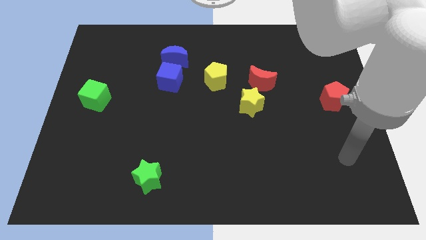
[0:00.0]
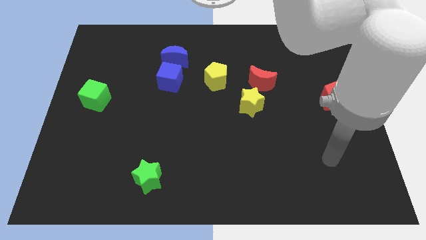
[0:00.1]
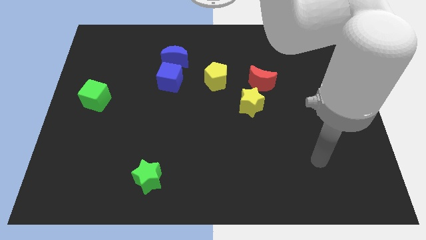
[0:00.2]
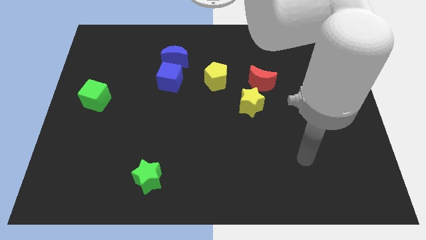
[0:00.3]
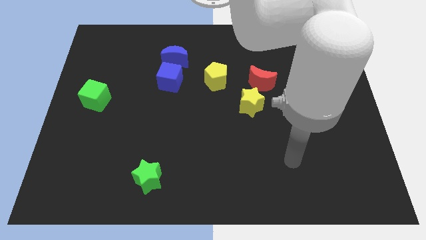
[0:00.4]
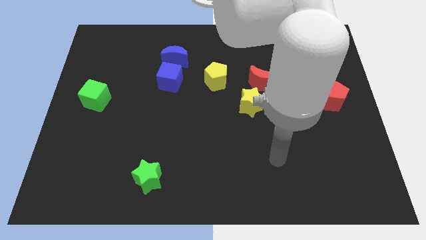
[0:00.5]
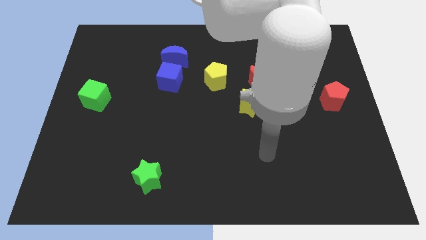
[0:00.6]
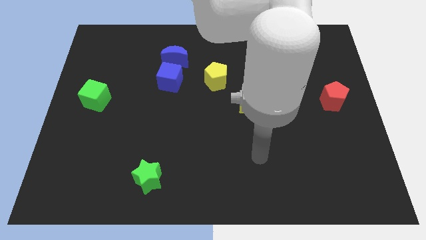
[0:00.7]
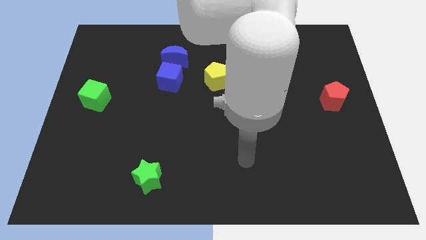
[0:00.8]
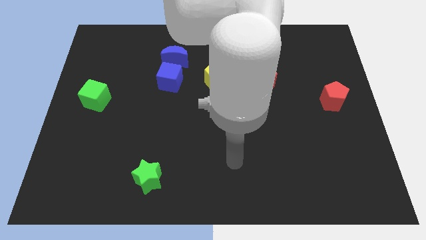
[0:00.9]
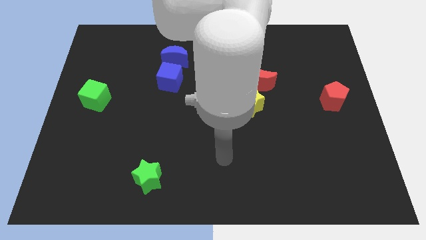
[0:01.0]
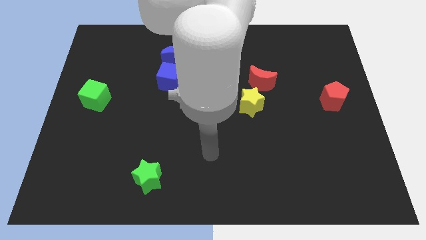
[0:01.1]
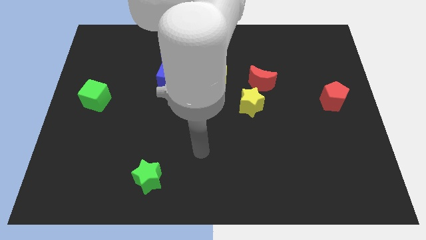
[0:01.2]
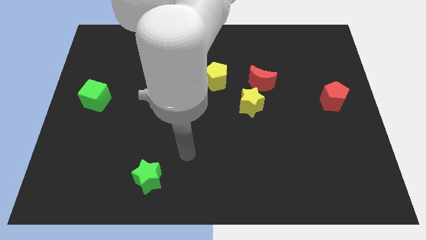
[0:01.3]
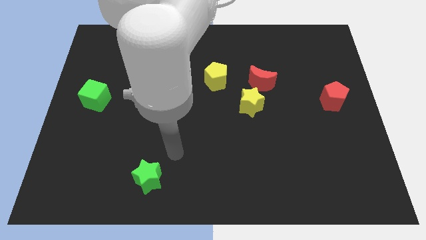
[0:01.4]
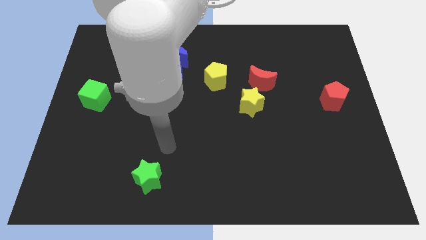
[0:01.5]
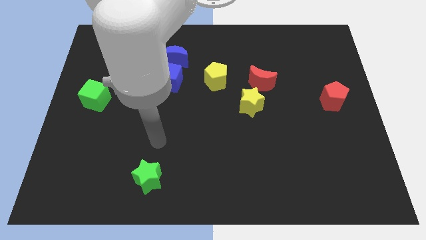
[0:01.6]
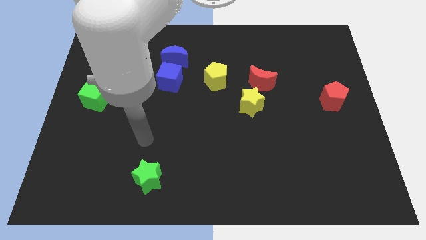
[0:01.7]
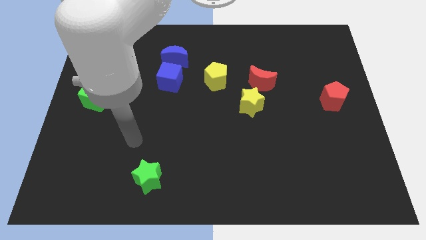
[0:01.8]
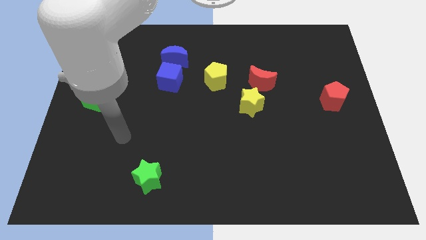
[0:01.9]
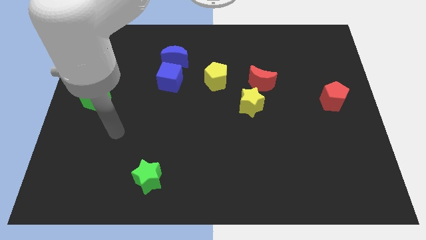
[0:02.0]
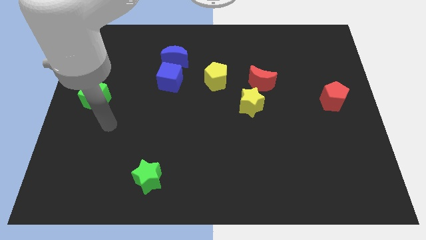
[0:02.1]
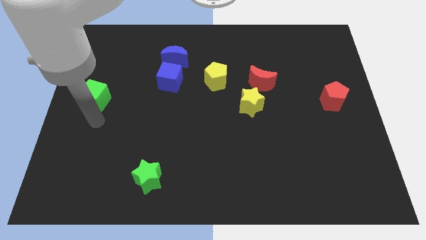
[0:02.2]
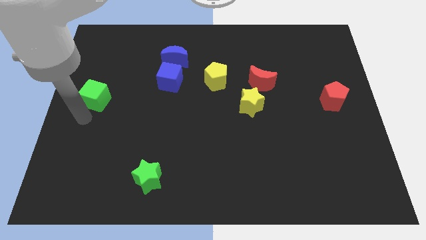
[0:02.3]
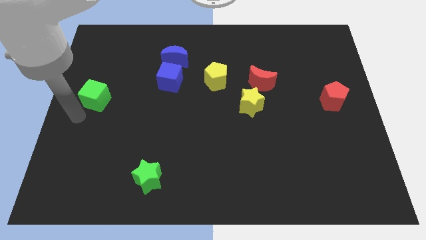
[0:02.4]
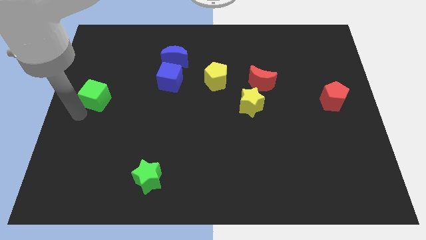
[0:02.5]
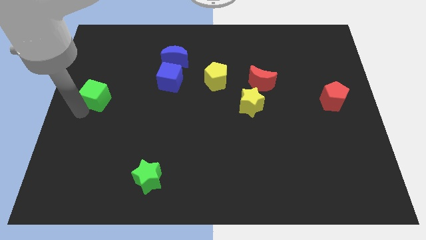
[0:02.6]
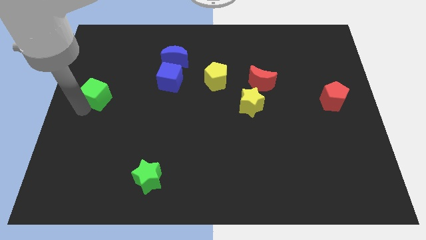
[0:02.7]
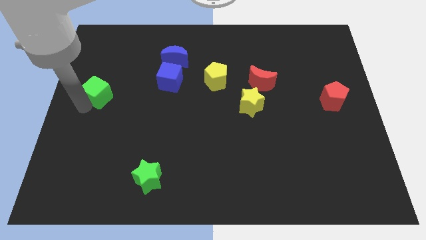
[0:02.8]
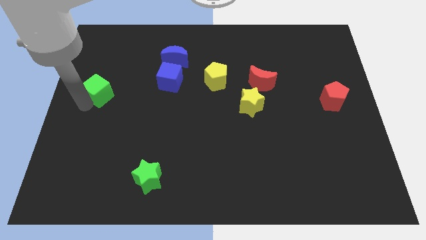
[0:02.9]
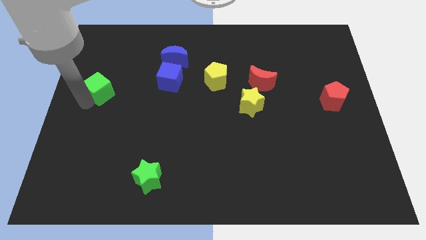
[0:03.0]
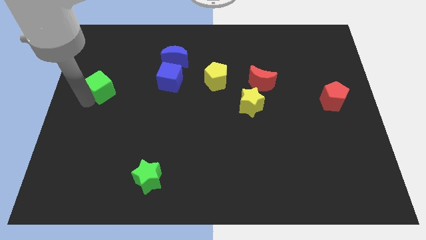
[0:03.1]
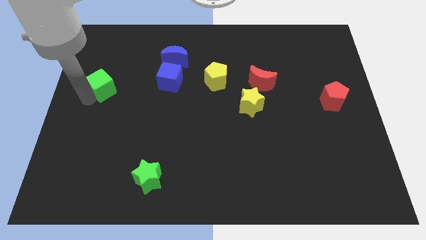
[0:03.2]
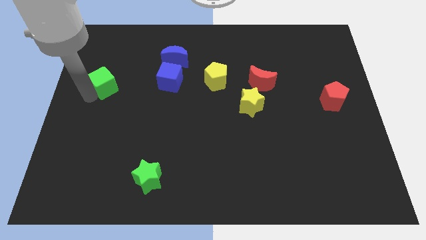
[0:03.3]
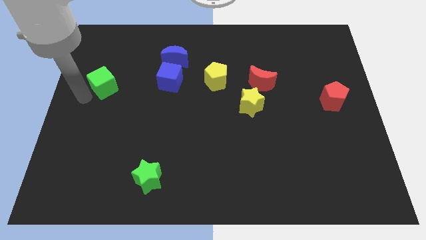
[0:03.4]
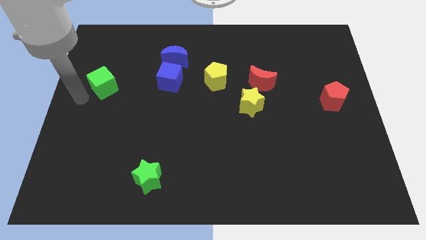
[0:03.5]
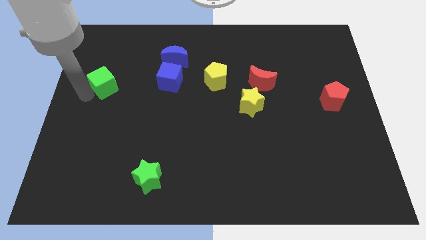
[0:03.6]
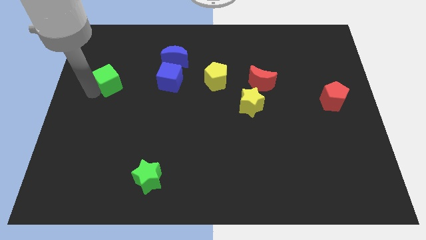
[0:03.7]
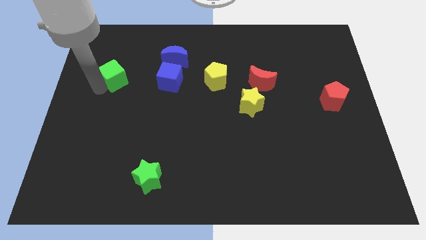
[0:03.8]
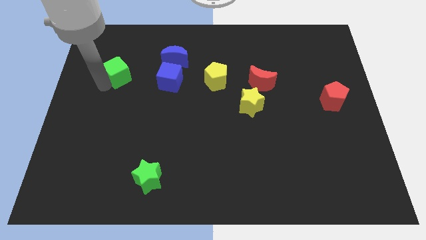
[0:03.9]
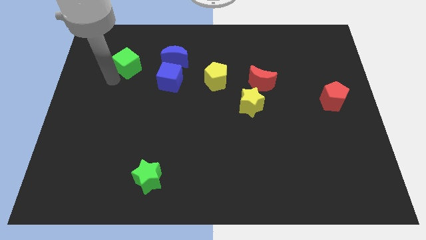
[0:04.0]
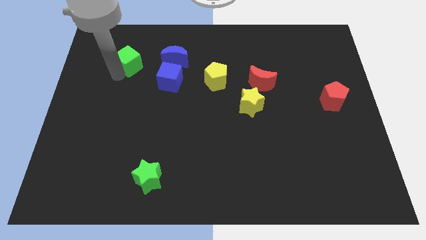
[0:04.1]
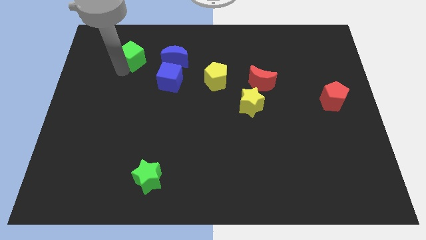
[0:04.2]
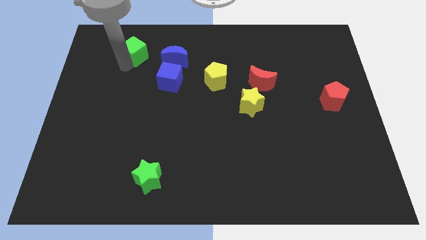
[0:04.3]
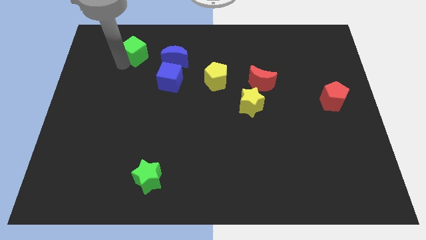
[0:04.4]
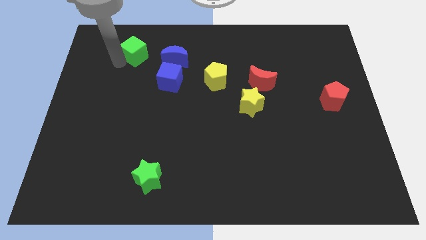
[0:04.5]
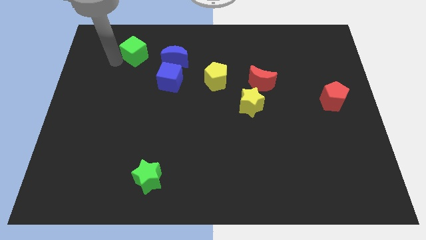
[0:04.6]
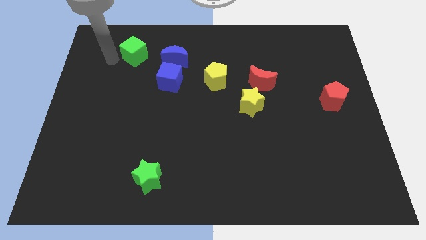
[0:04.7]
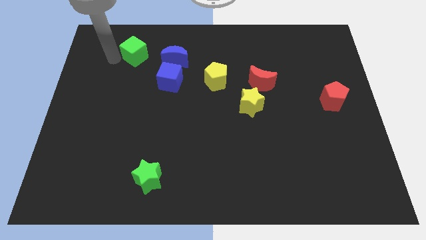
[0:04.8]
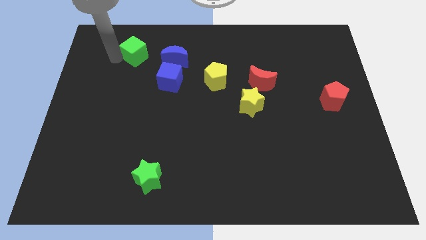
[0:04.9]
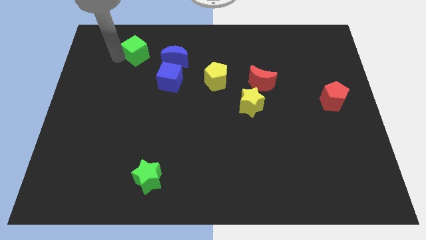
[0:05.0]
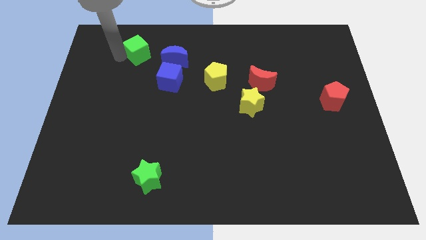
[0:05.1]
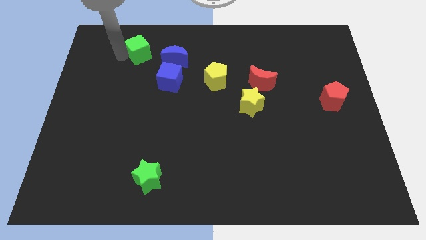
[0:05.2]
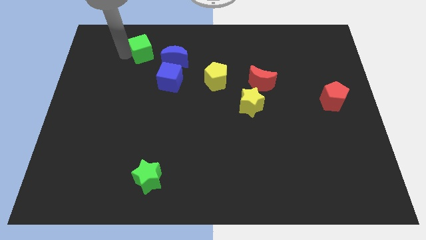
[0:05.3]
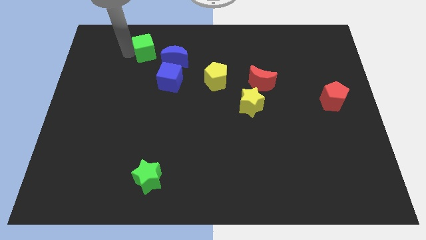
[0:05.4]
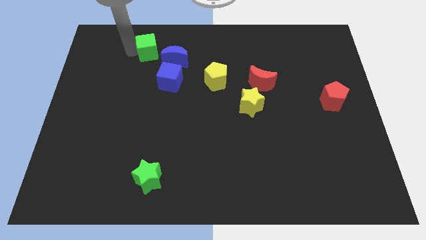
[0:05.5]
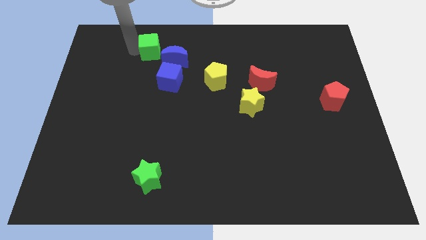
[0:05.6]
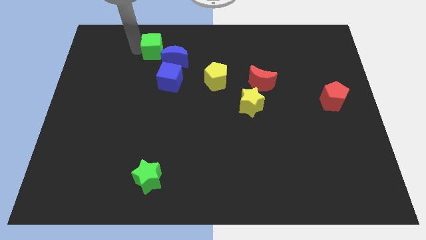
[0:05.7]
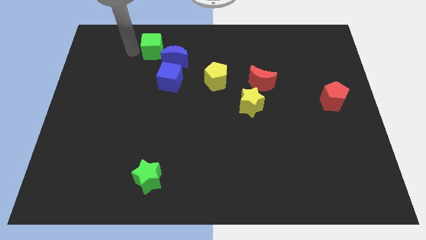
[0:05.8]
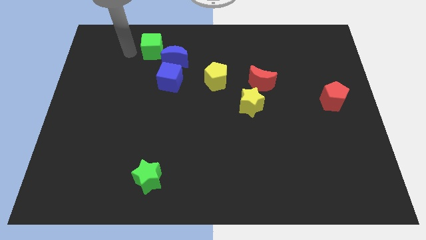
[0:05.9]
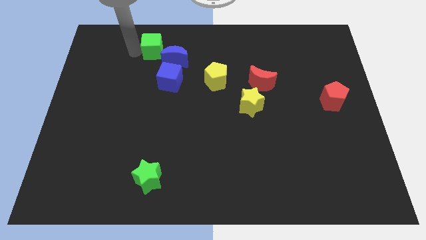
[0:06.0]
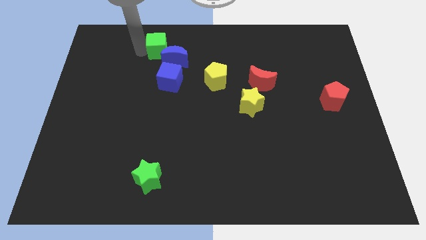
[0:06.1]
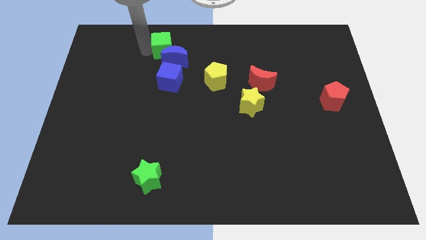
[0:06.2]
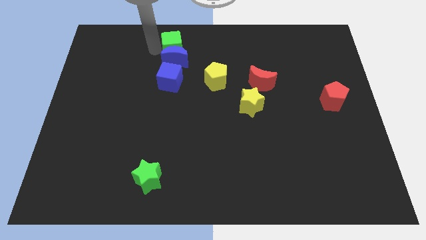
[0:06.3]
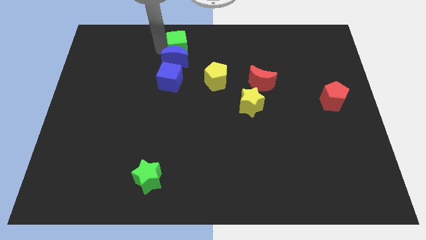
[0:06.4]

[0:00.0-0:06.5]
put the green cube to the top side

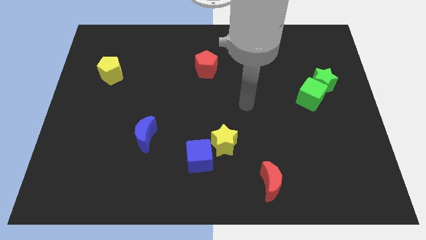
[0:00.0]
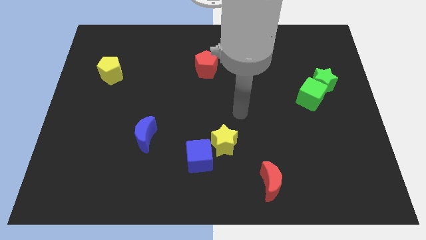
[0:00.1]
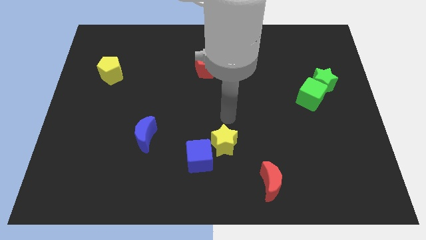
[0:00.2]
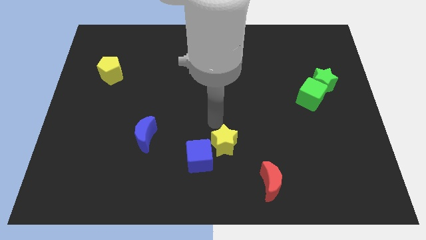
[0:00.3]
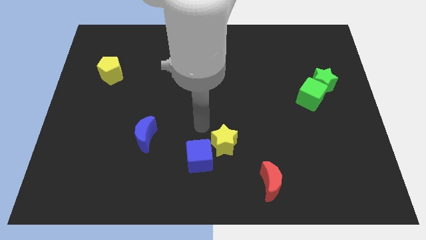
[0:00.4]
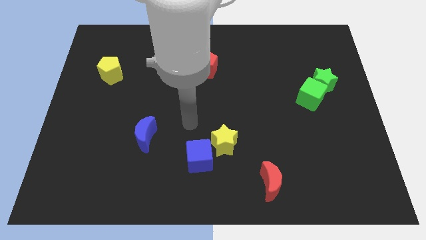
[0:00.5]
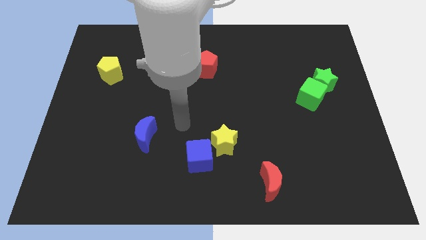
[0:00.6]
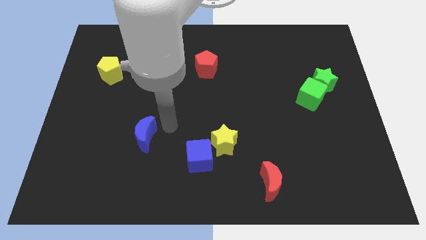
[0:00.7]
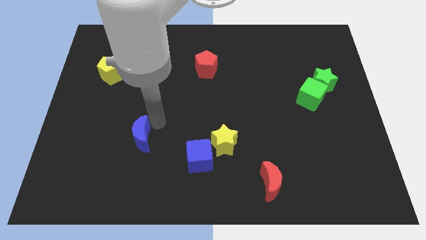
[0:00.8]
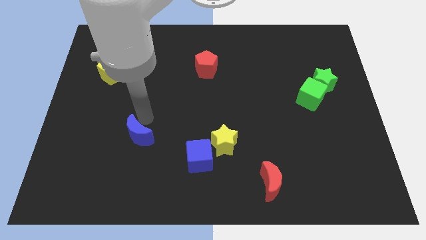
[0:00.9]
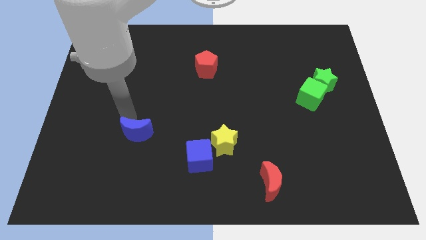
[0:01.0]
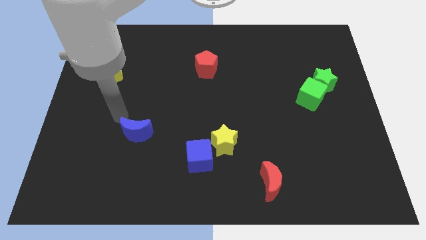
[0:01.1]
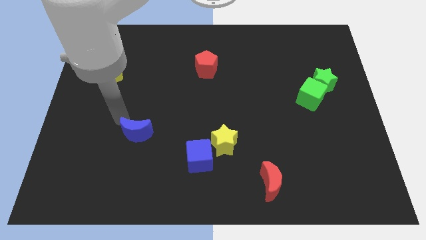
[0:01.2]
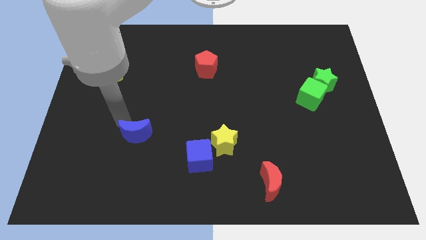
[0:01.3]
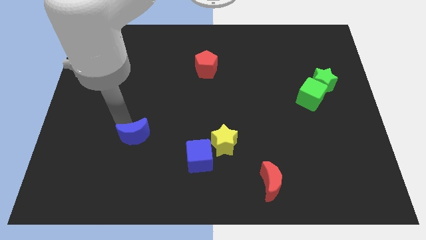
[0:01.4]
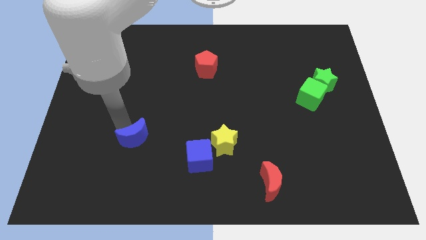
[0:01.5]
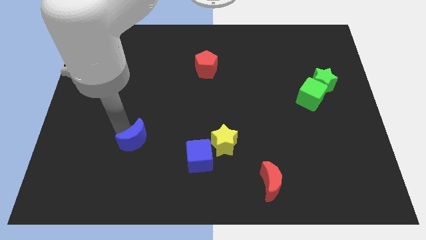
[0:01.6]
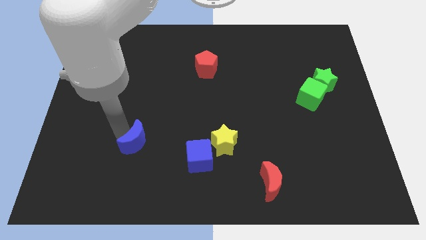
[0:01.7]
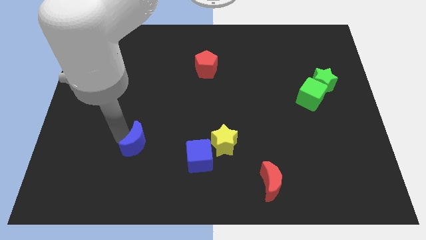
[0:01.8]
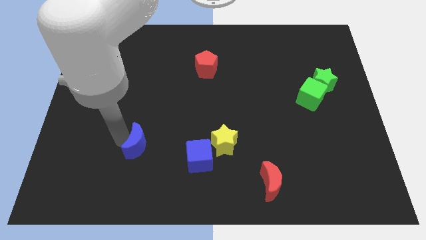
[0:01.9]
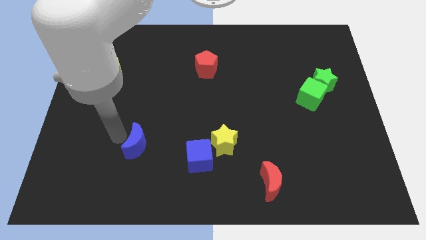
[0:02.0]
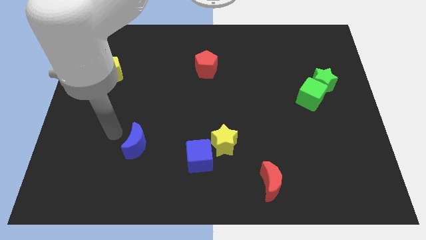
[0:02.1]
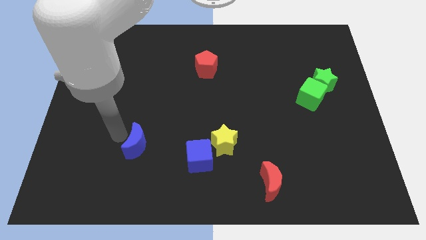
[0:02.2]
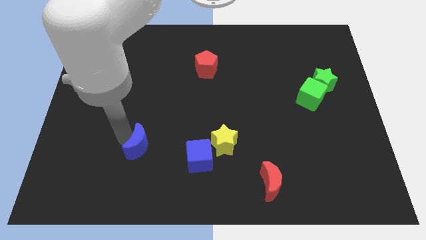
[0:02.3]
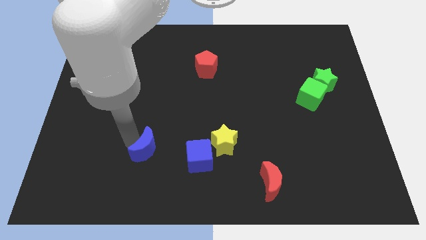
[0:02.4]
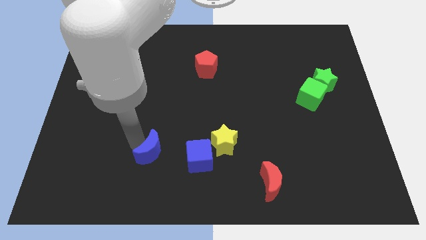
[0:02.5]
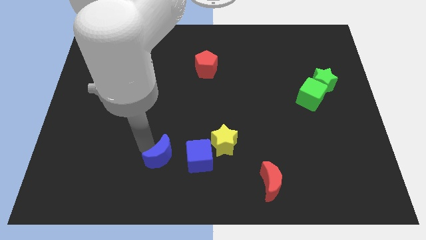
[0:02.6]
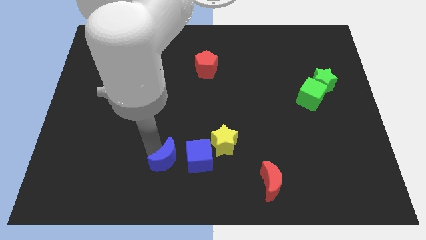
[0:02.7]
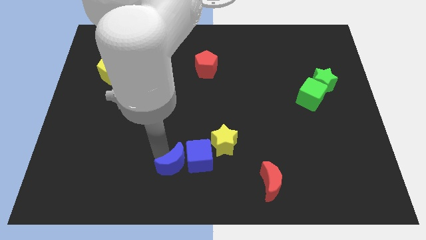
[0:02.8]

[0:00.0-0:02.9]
put the blue moon to the bottom
